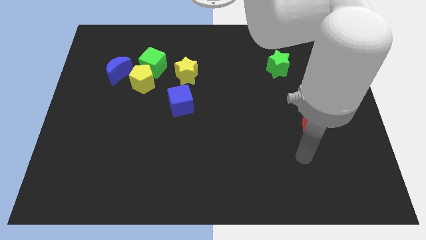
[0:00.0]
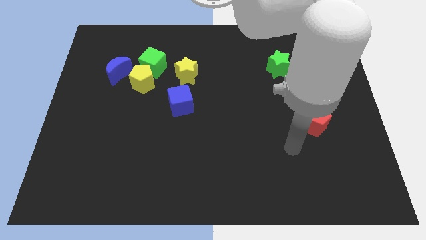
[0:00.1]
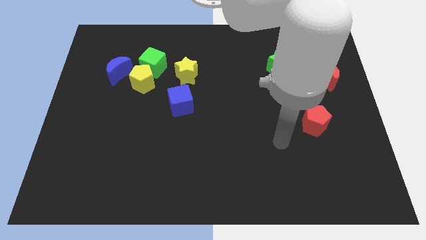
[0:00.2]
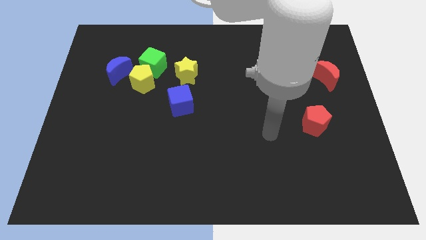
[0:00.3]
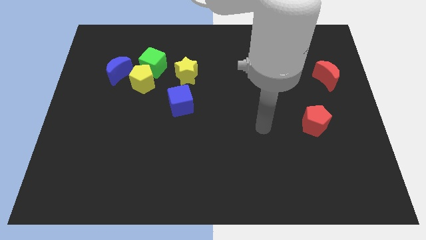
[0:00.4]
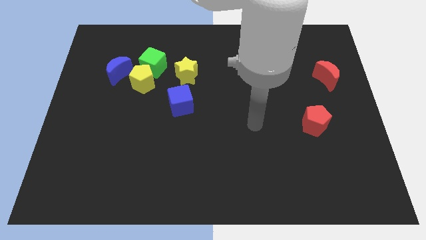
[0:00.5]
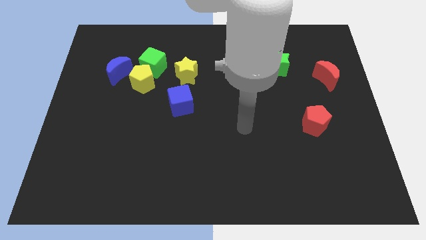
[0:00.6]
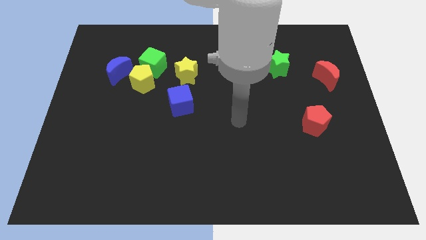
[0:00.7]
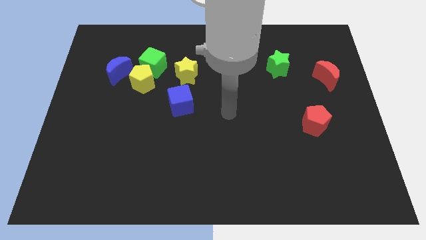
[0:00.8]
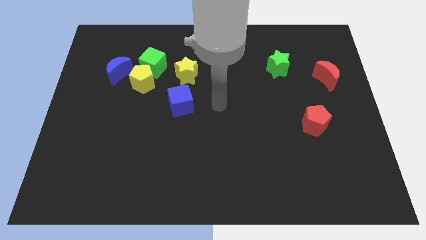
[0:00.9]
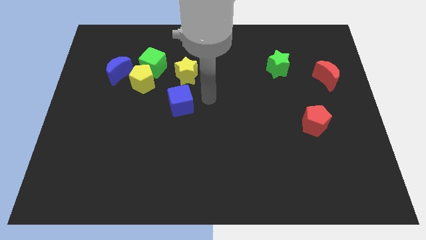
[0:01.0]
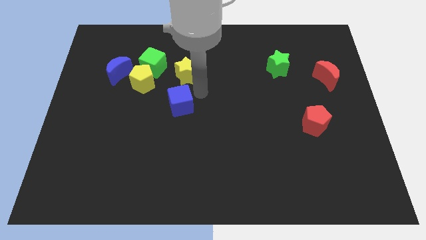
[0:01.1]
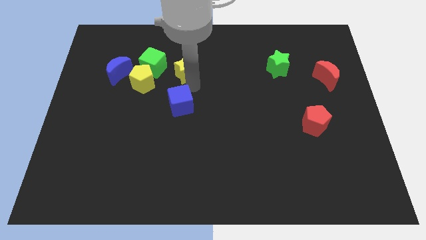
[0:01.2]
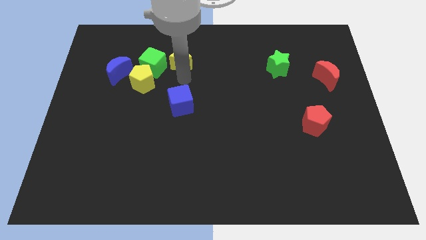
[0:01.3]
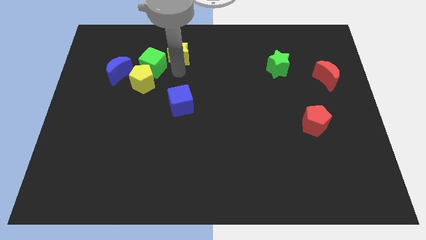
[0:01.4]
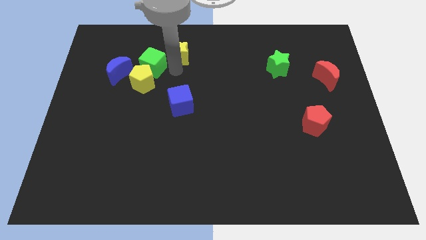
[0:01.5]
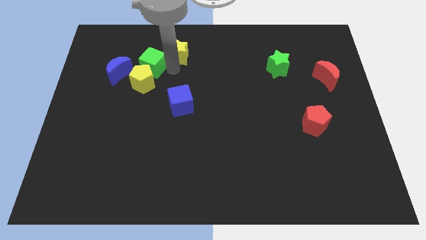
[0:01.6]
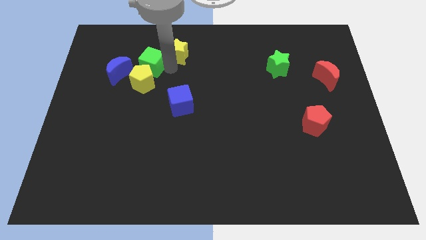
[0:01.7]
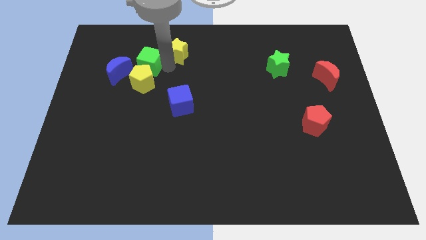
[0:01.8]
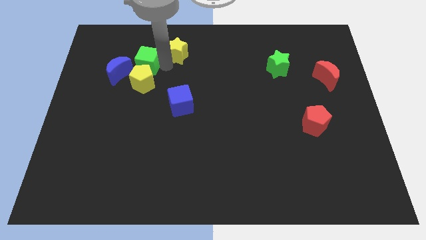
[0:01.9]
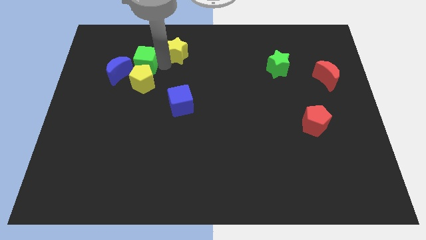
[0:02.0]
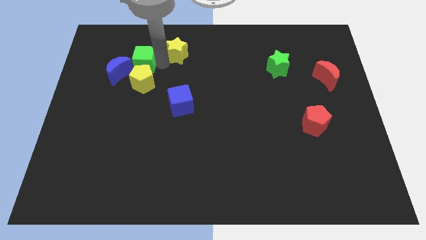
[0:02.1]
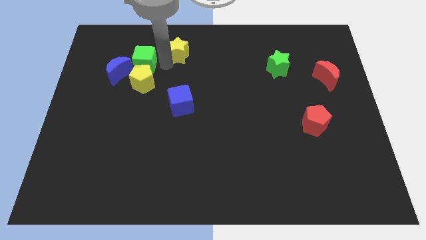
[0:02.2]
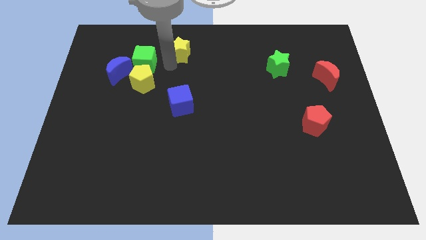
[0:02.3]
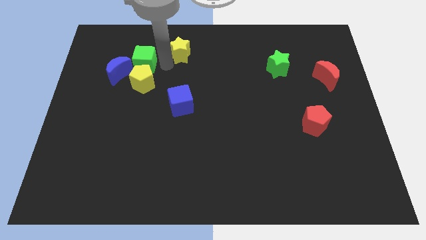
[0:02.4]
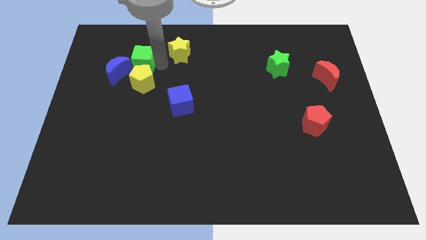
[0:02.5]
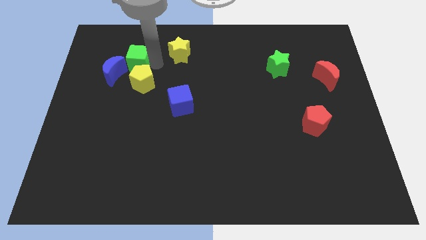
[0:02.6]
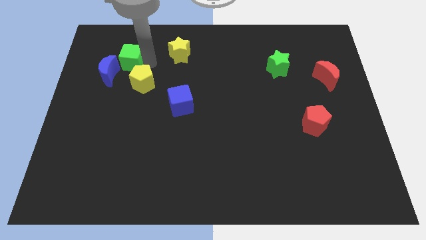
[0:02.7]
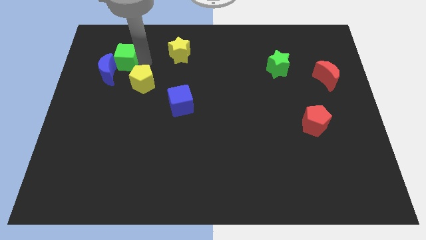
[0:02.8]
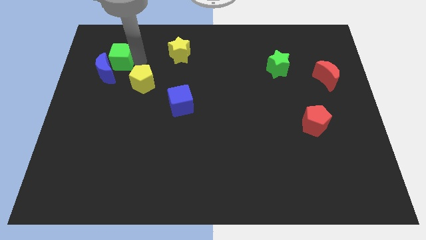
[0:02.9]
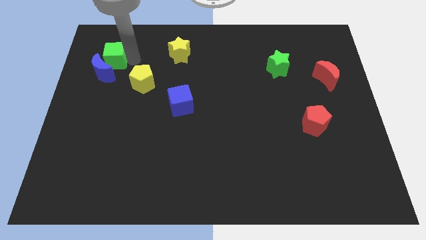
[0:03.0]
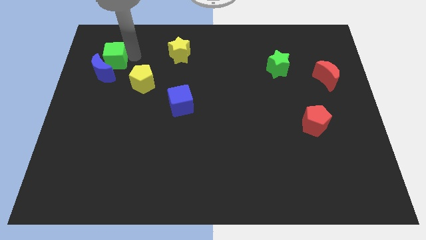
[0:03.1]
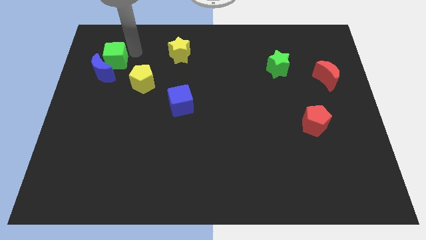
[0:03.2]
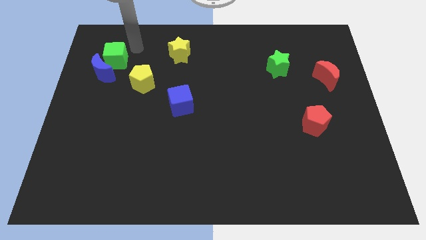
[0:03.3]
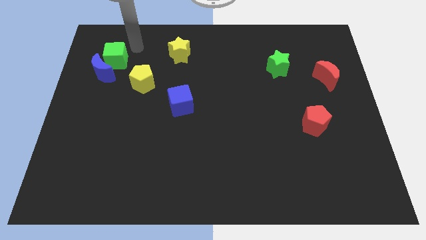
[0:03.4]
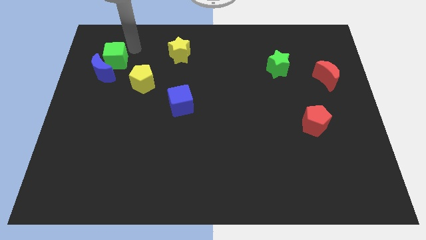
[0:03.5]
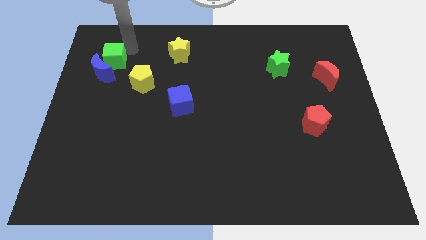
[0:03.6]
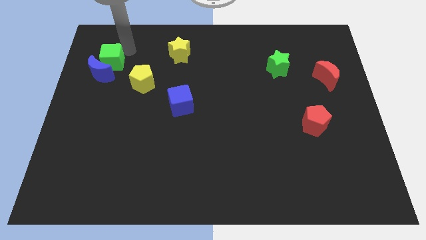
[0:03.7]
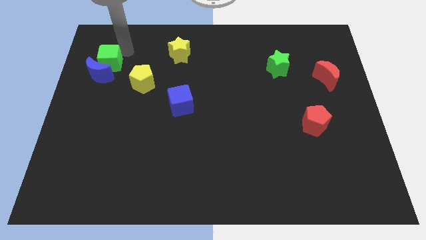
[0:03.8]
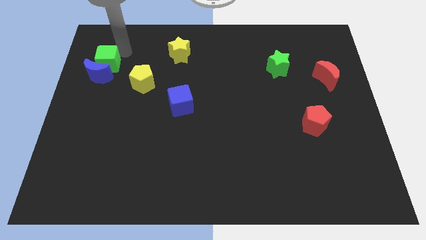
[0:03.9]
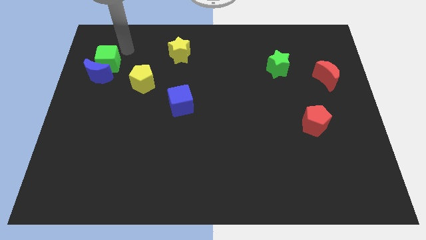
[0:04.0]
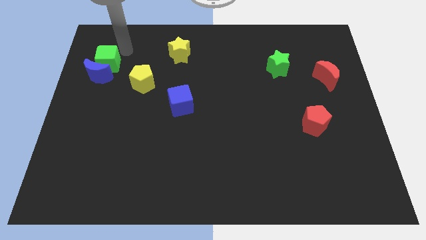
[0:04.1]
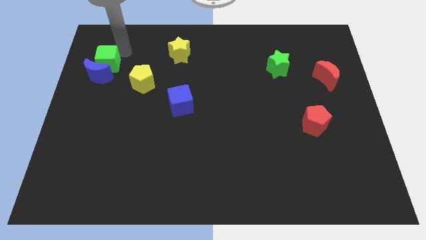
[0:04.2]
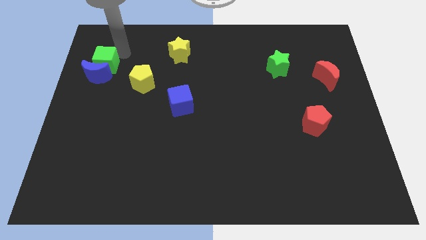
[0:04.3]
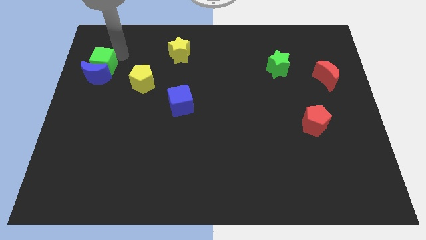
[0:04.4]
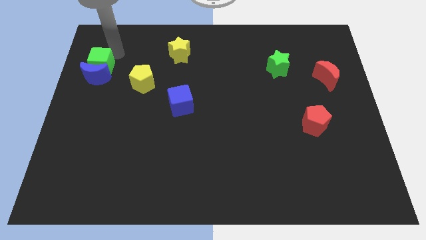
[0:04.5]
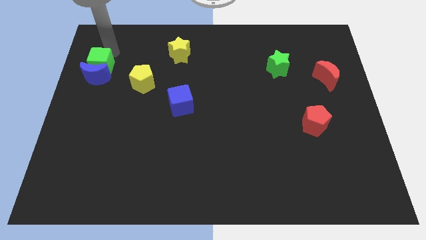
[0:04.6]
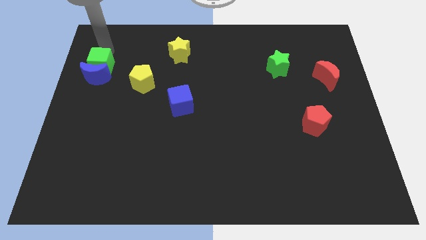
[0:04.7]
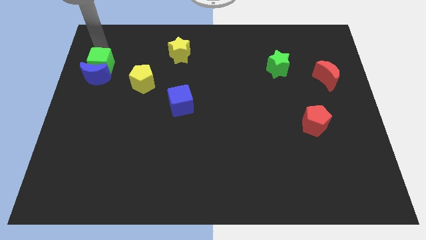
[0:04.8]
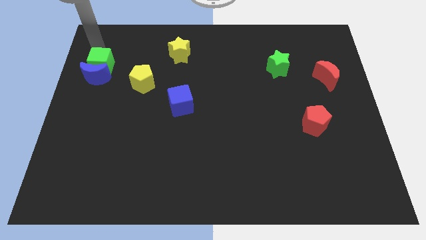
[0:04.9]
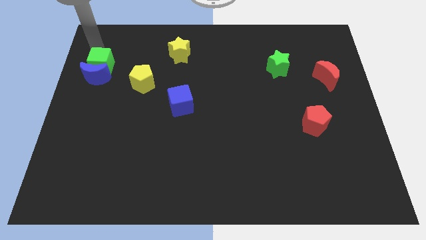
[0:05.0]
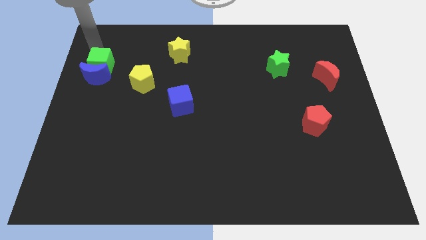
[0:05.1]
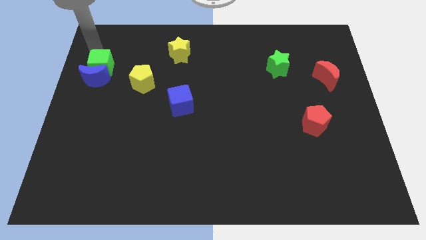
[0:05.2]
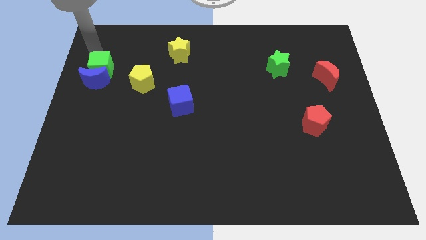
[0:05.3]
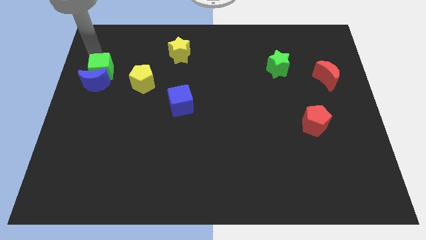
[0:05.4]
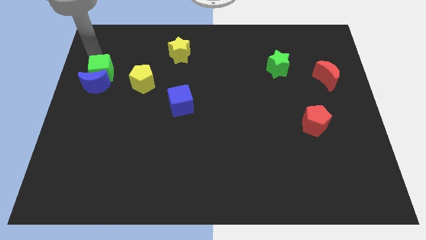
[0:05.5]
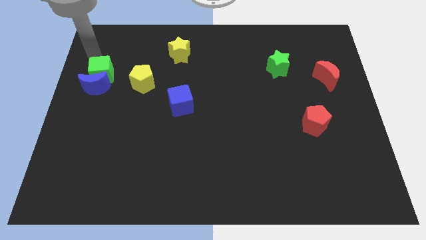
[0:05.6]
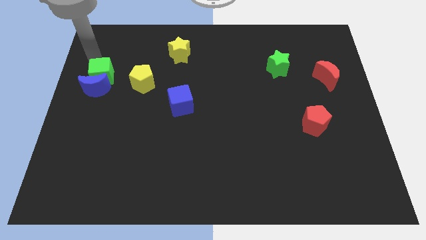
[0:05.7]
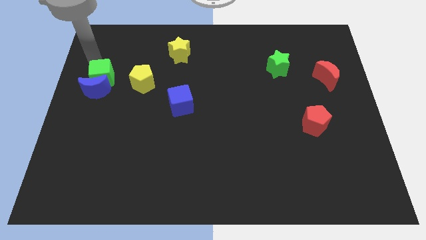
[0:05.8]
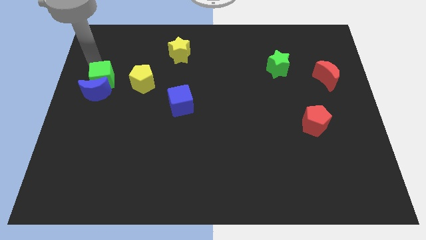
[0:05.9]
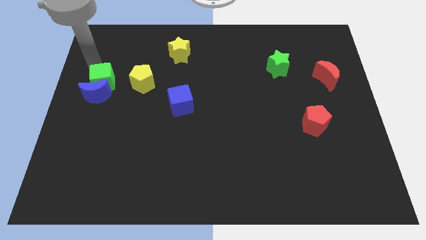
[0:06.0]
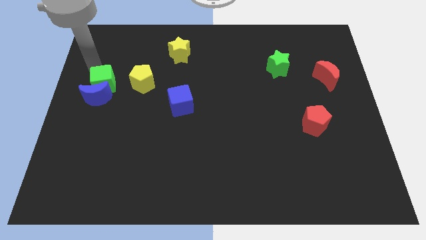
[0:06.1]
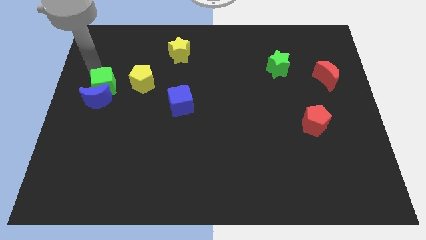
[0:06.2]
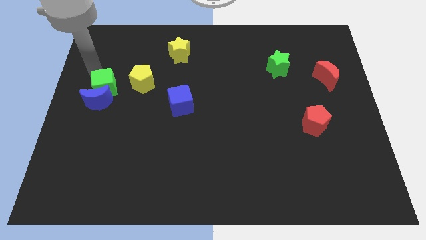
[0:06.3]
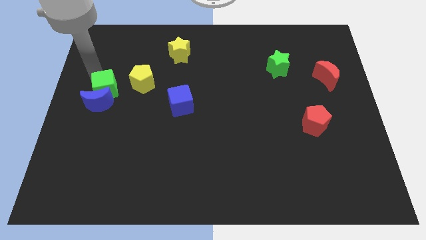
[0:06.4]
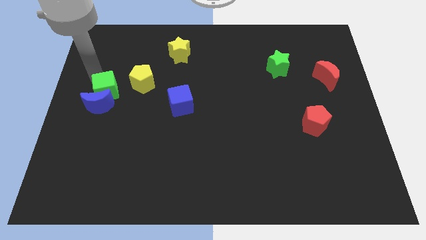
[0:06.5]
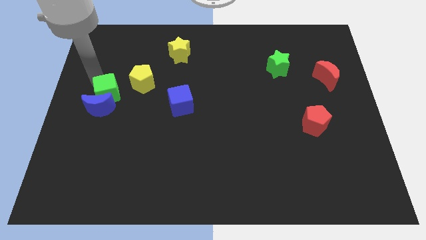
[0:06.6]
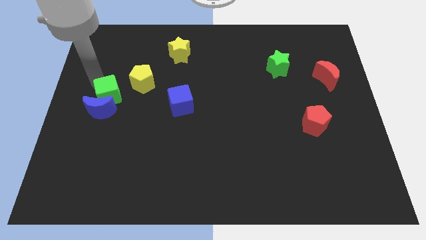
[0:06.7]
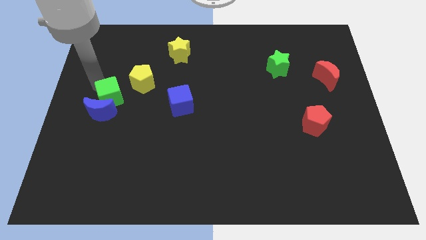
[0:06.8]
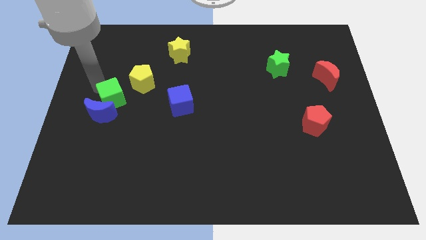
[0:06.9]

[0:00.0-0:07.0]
move the green cube a little bit down

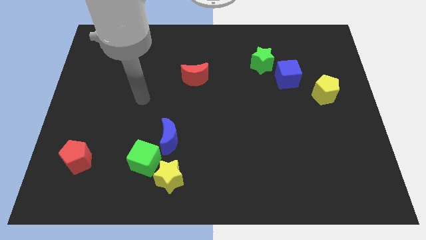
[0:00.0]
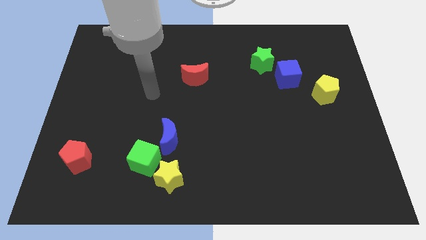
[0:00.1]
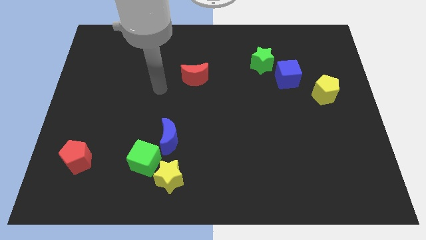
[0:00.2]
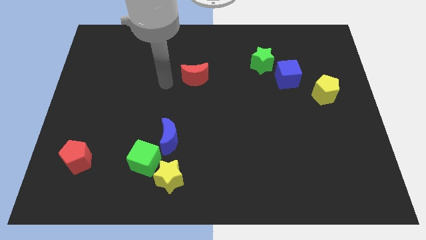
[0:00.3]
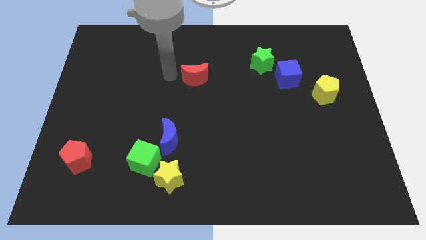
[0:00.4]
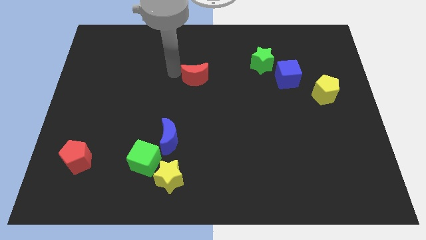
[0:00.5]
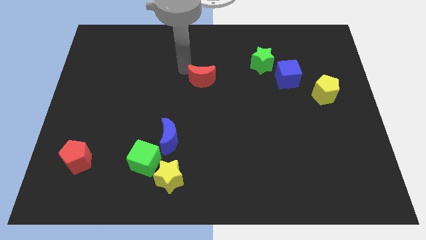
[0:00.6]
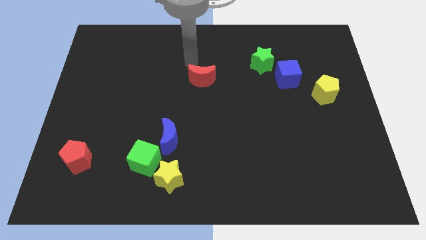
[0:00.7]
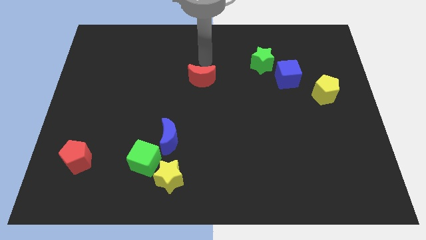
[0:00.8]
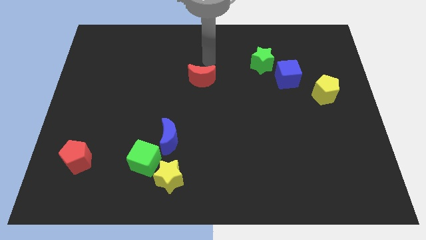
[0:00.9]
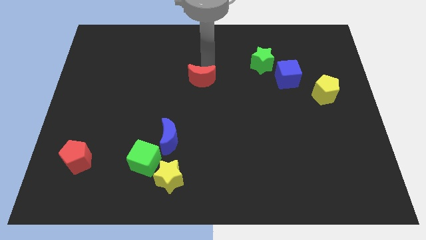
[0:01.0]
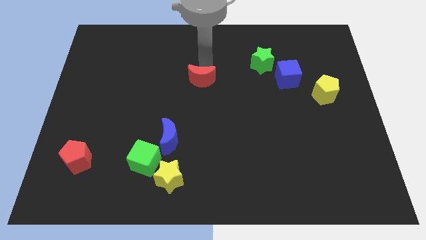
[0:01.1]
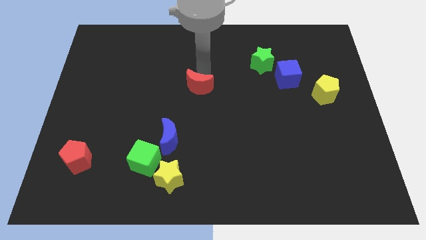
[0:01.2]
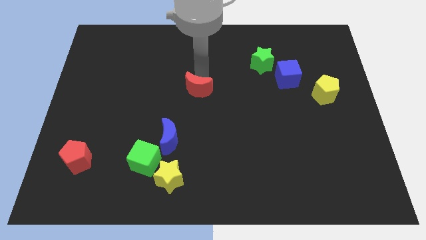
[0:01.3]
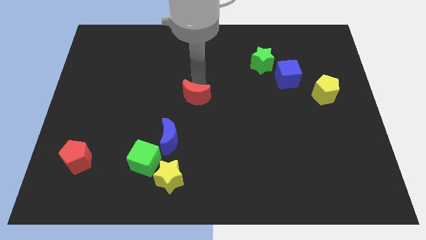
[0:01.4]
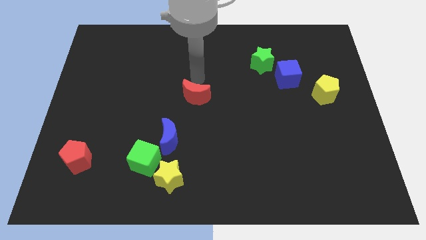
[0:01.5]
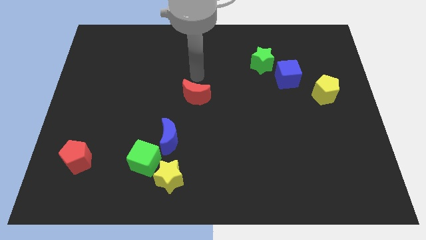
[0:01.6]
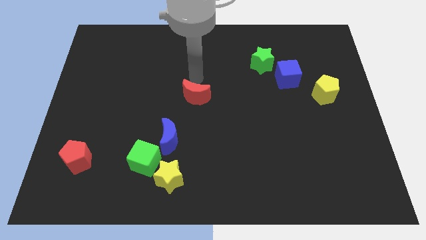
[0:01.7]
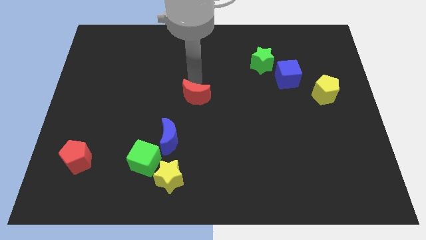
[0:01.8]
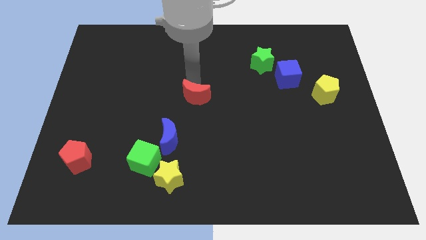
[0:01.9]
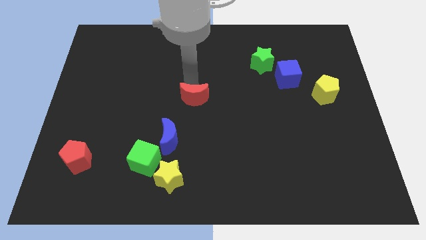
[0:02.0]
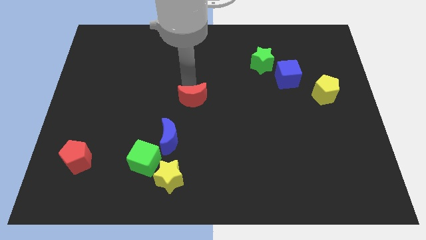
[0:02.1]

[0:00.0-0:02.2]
push the red moon downwards slightly
